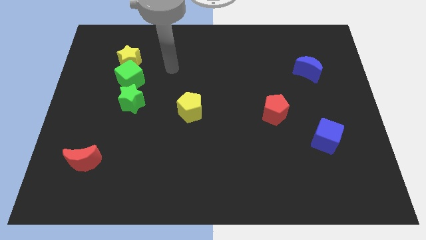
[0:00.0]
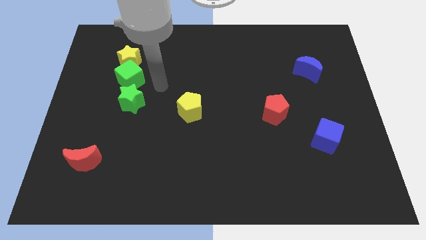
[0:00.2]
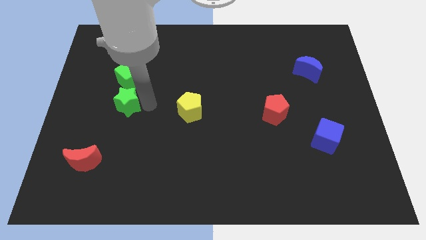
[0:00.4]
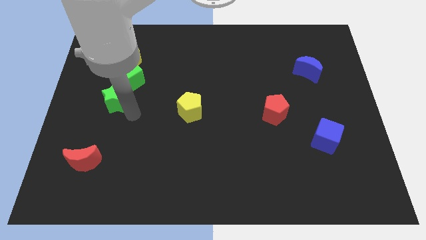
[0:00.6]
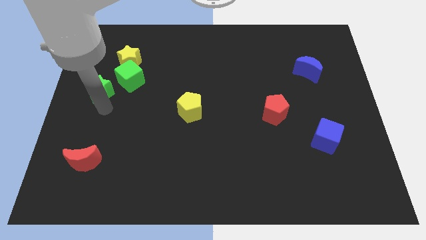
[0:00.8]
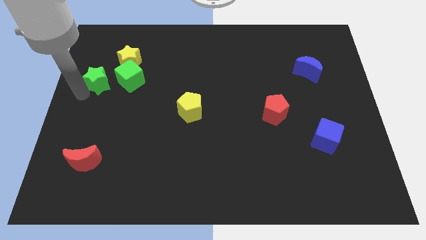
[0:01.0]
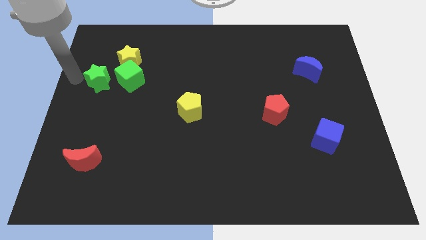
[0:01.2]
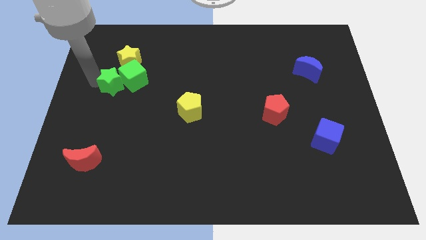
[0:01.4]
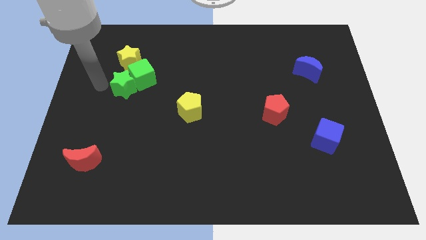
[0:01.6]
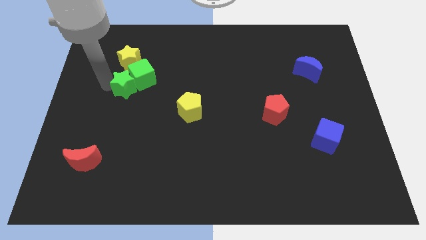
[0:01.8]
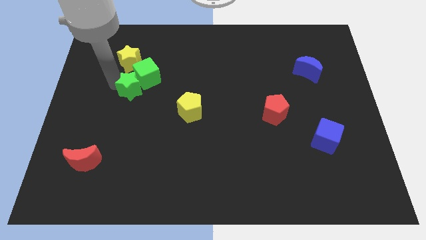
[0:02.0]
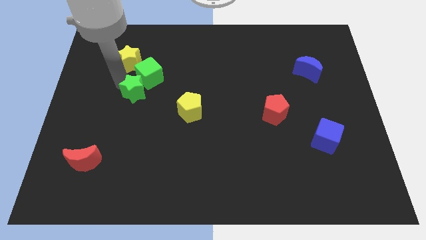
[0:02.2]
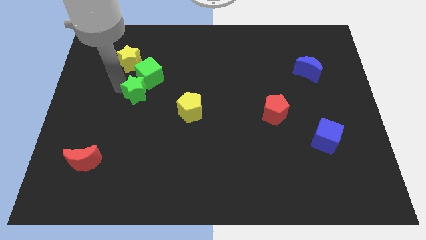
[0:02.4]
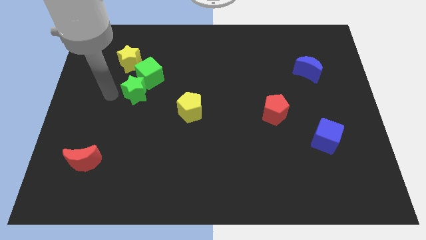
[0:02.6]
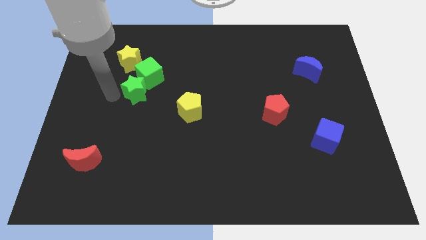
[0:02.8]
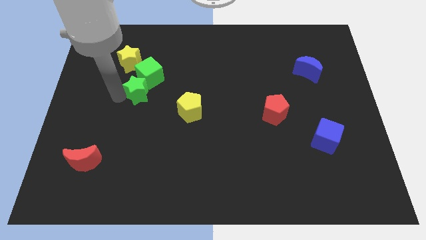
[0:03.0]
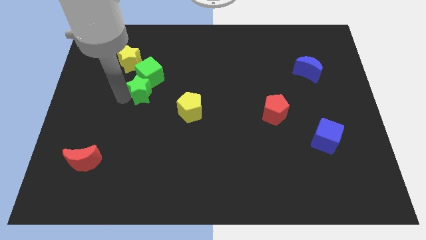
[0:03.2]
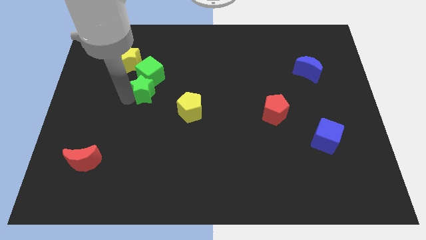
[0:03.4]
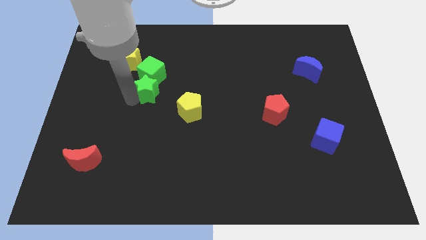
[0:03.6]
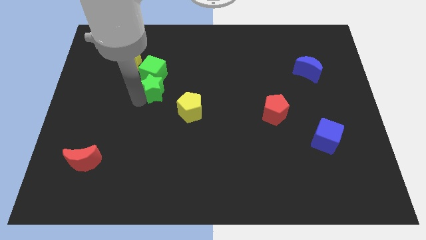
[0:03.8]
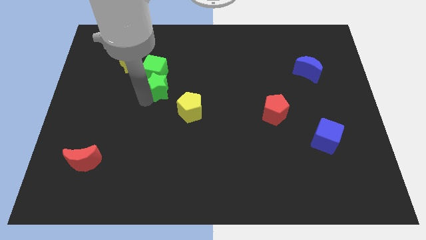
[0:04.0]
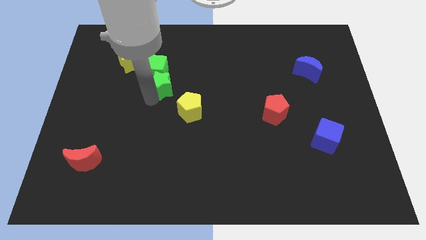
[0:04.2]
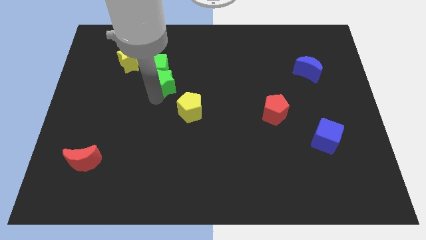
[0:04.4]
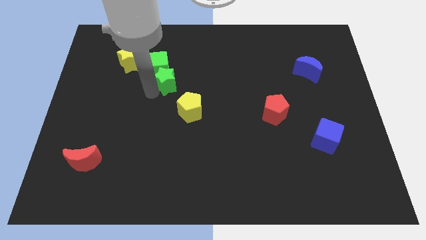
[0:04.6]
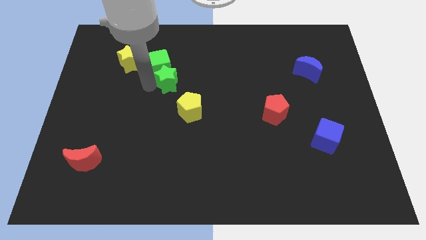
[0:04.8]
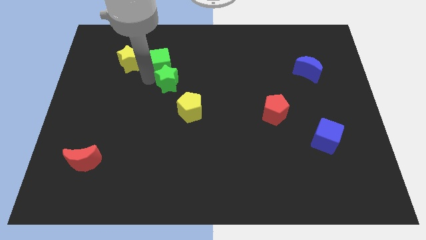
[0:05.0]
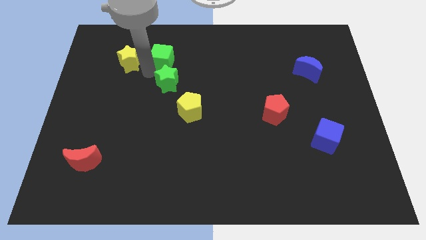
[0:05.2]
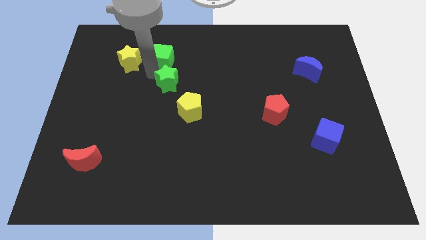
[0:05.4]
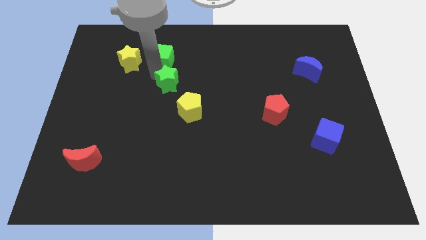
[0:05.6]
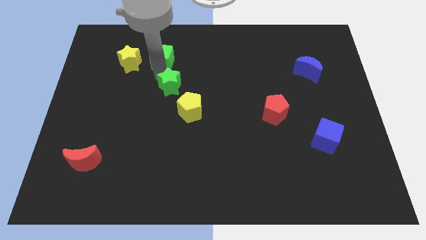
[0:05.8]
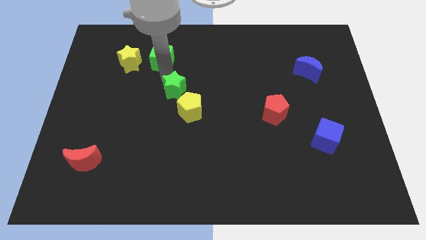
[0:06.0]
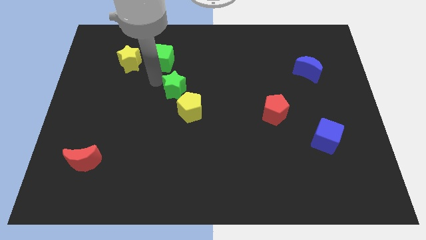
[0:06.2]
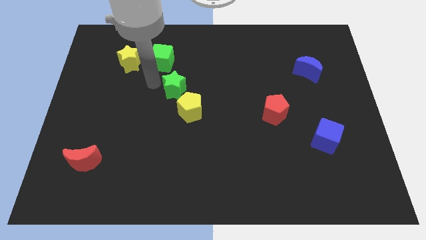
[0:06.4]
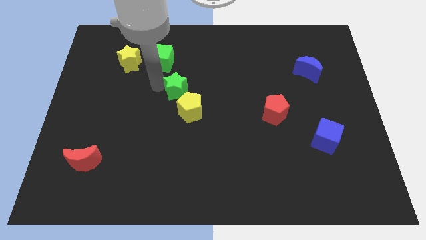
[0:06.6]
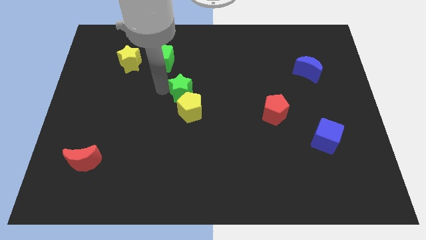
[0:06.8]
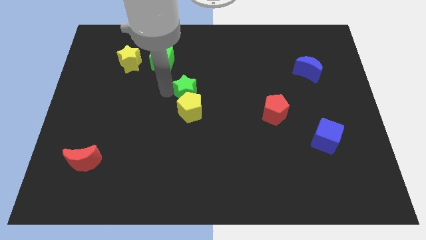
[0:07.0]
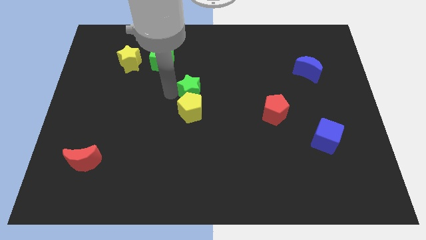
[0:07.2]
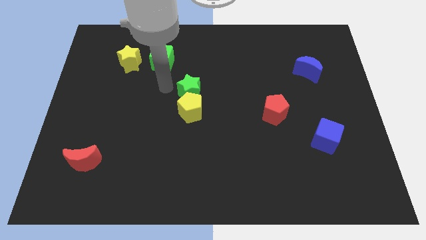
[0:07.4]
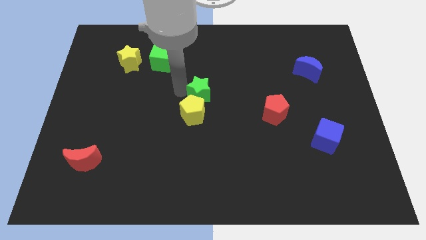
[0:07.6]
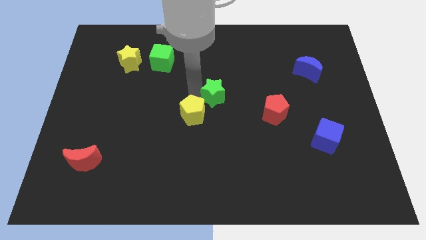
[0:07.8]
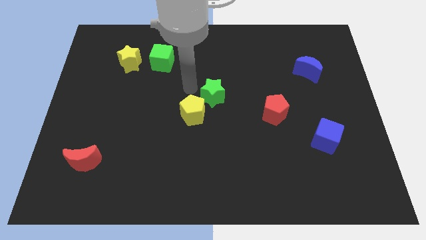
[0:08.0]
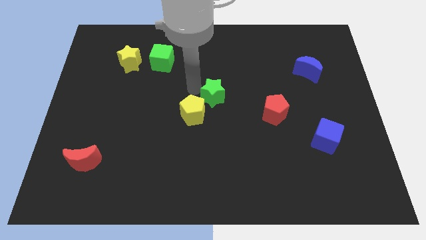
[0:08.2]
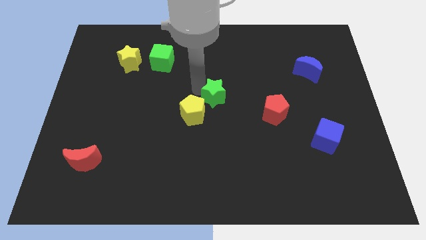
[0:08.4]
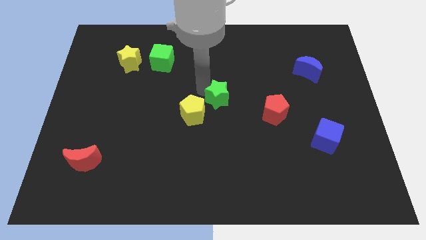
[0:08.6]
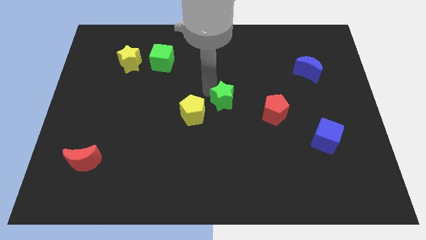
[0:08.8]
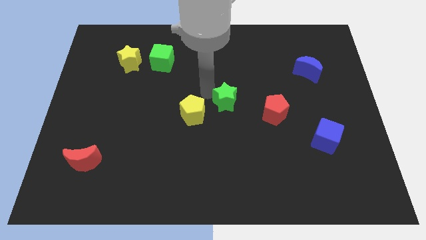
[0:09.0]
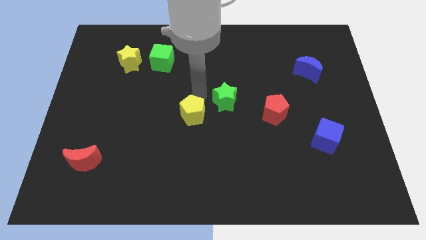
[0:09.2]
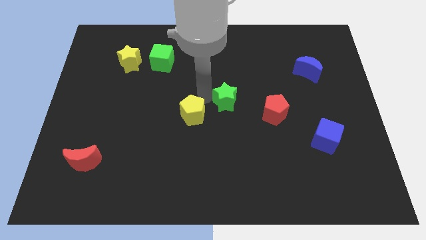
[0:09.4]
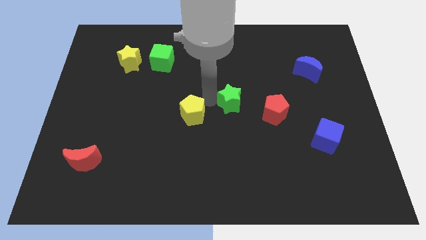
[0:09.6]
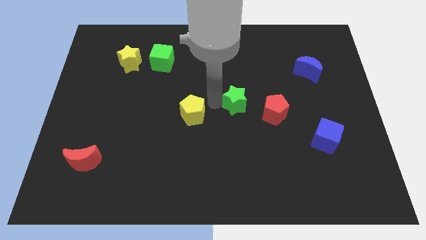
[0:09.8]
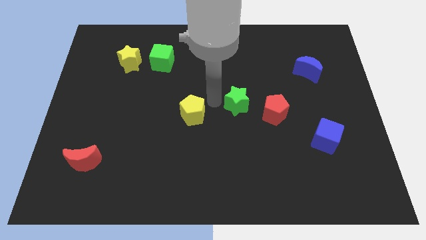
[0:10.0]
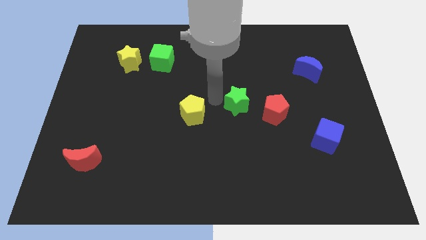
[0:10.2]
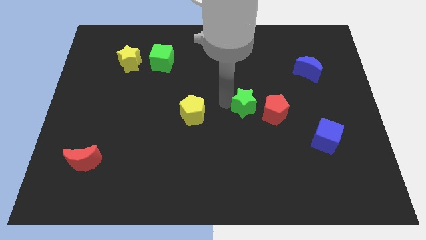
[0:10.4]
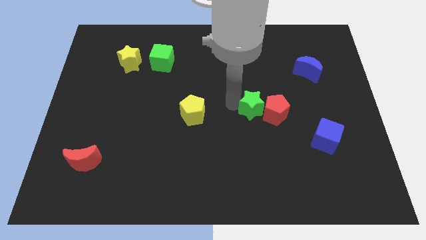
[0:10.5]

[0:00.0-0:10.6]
push the green star to the red pentagon

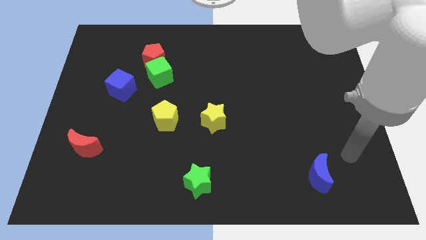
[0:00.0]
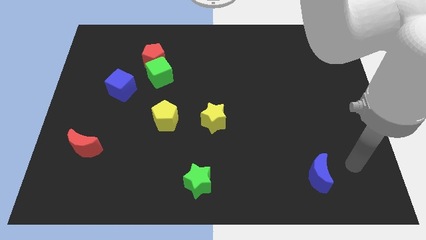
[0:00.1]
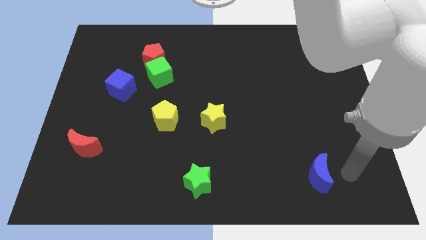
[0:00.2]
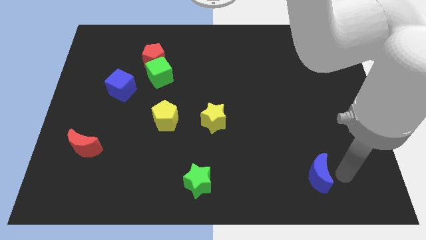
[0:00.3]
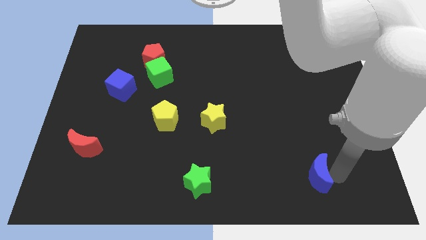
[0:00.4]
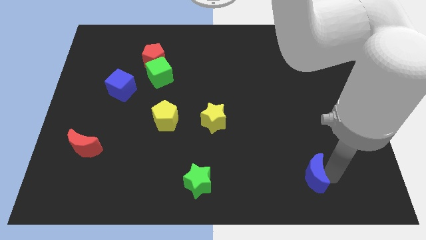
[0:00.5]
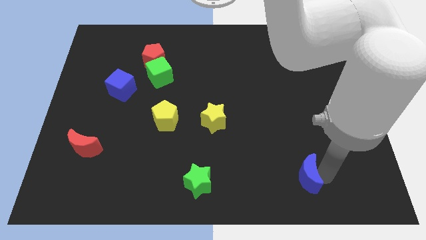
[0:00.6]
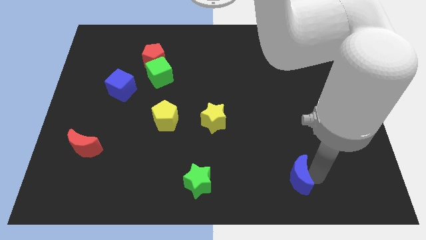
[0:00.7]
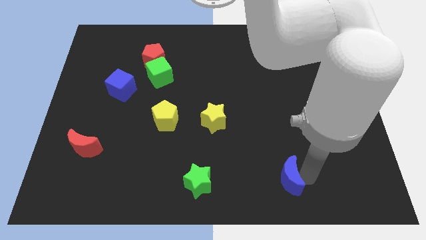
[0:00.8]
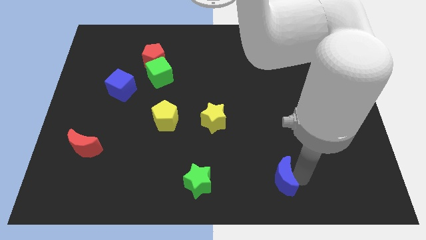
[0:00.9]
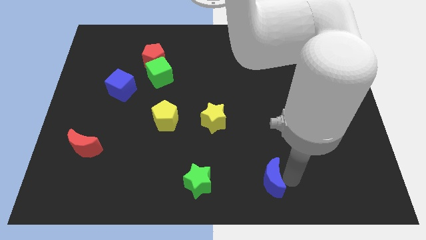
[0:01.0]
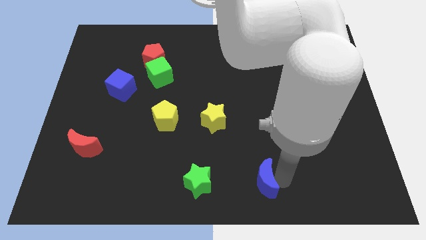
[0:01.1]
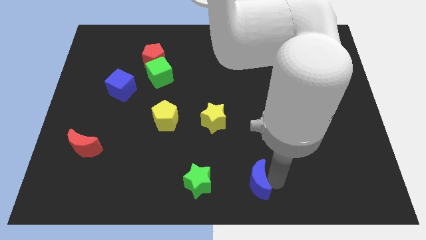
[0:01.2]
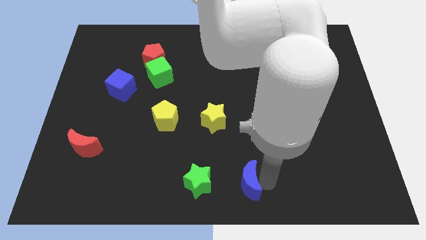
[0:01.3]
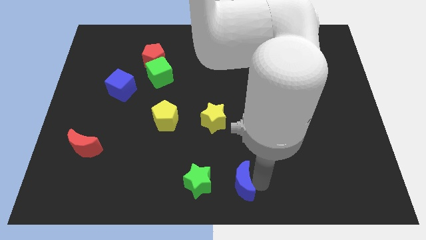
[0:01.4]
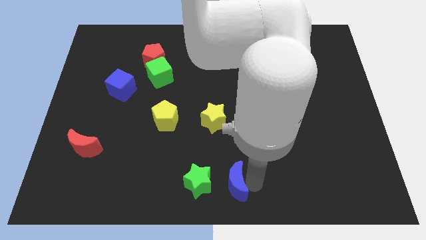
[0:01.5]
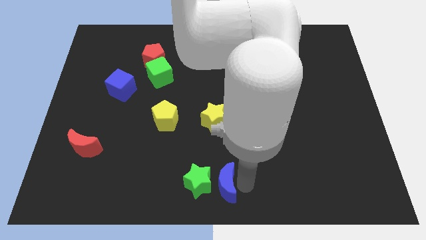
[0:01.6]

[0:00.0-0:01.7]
move the blue moon to the green star
